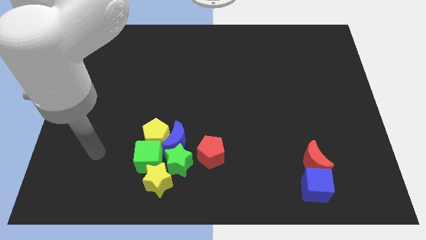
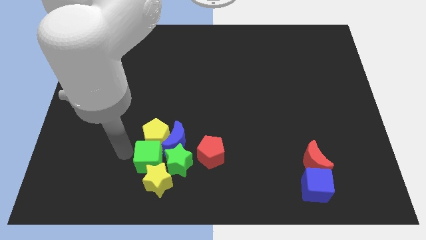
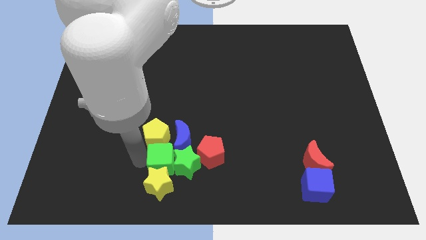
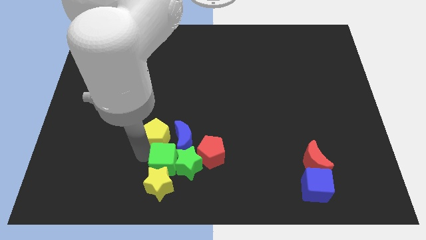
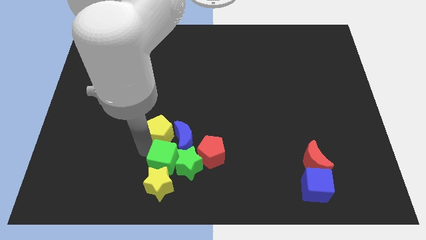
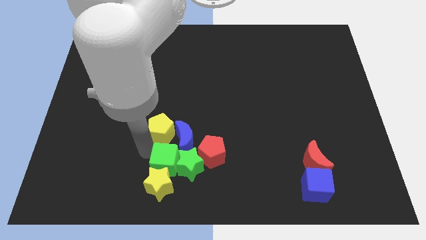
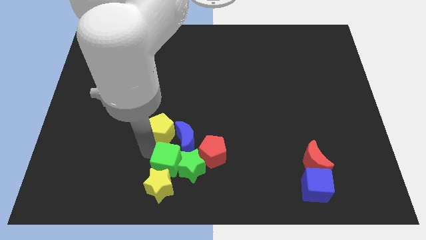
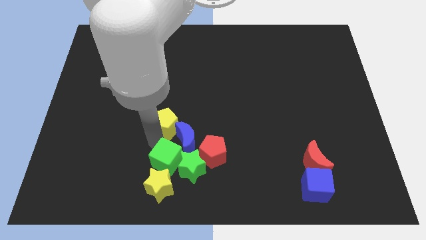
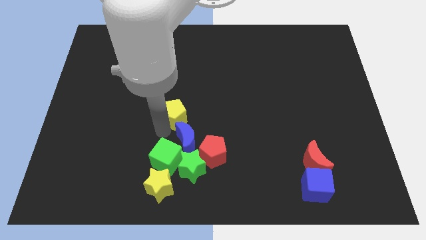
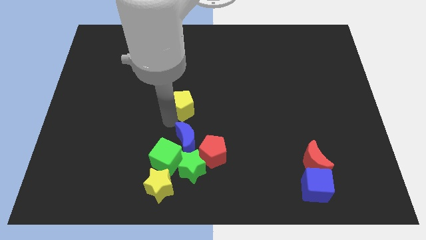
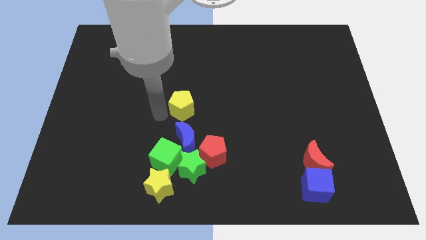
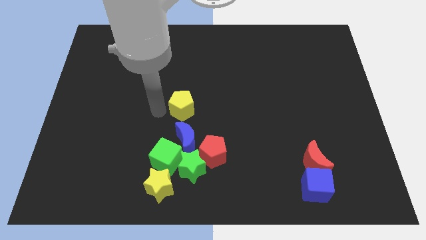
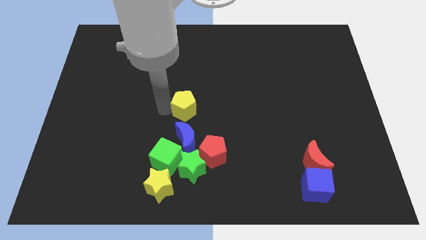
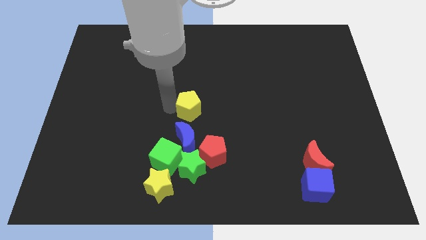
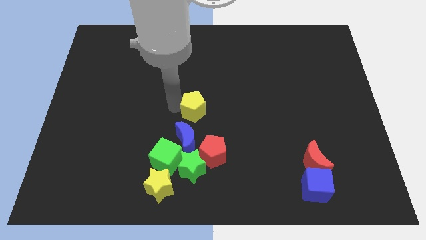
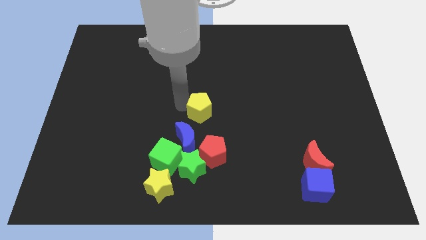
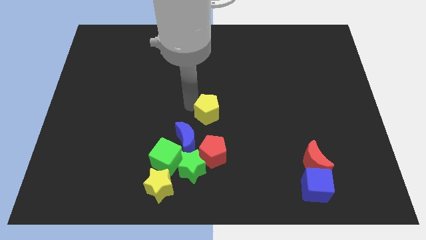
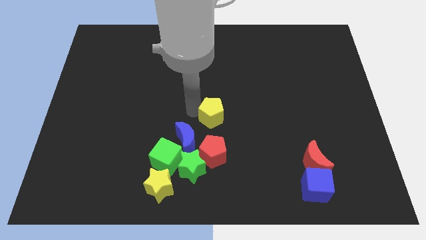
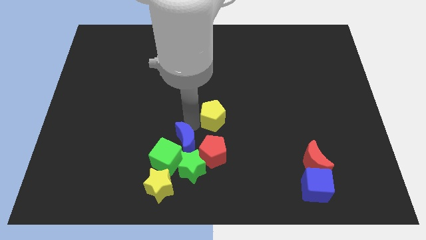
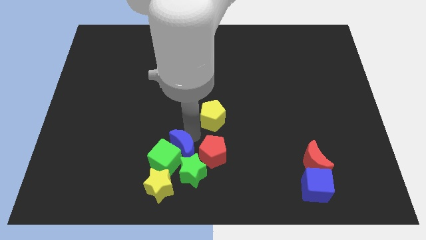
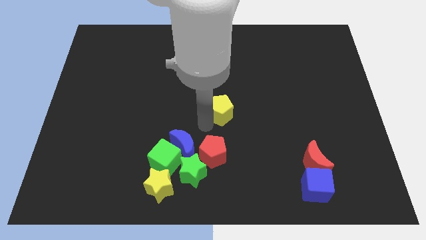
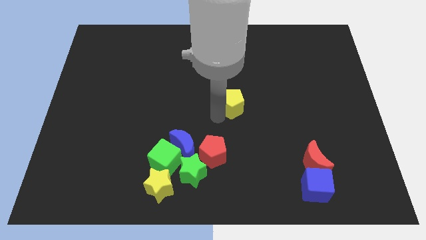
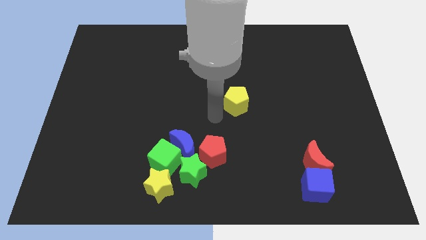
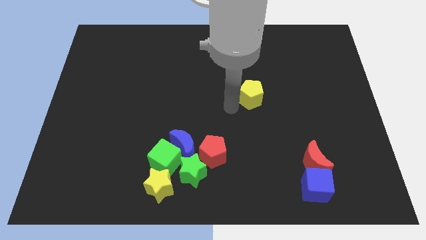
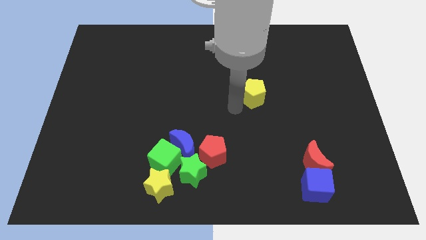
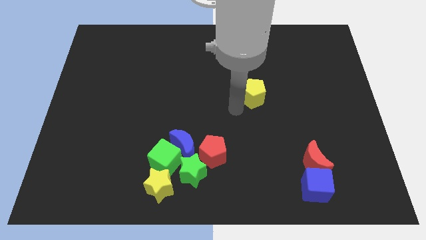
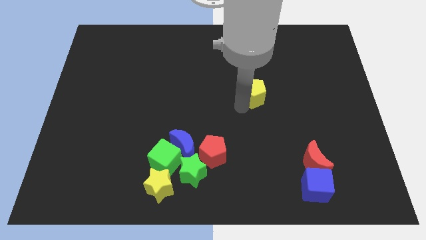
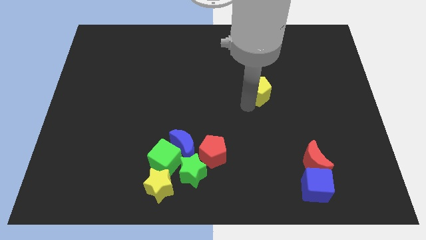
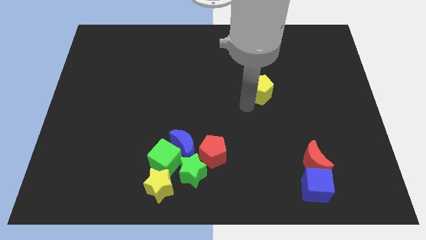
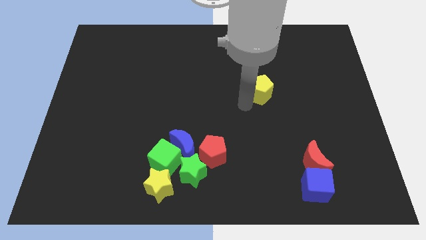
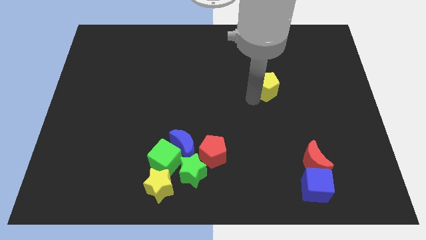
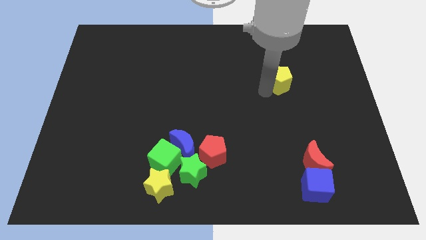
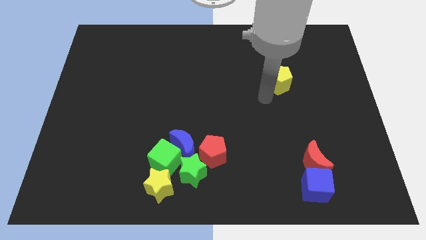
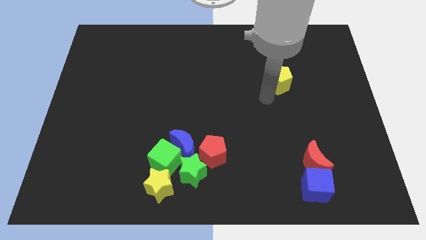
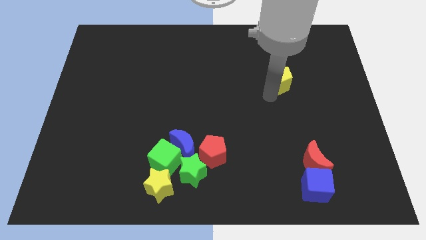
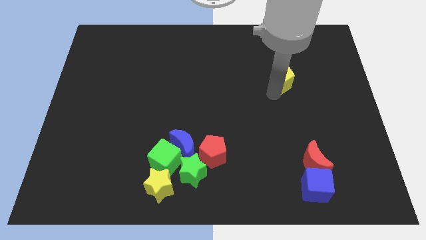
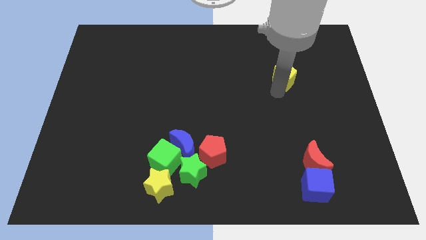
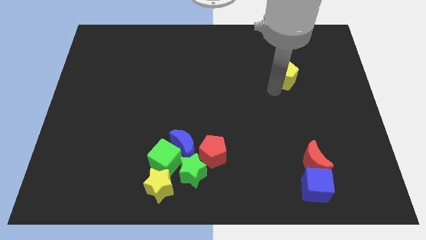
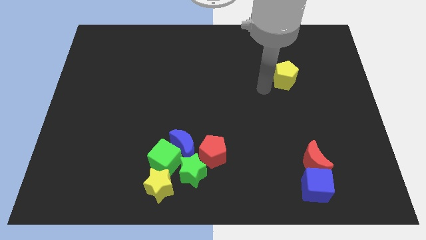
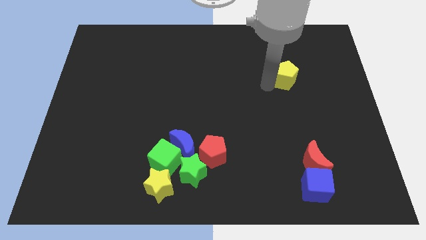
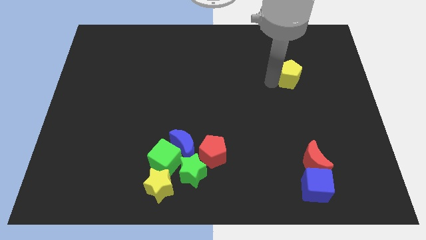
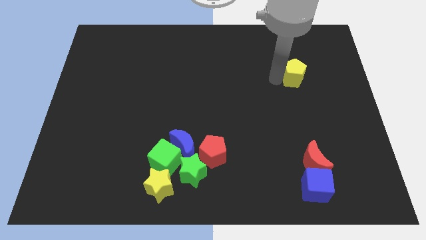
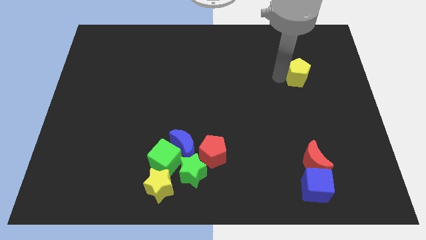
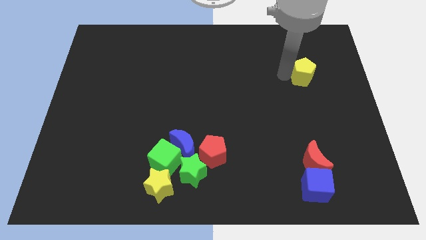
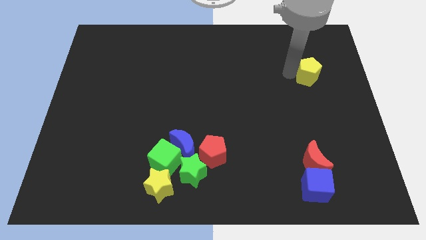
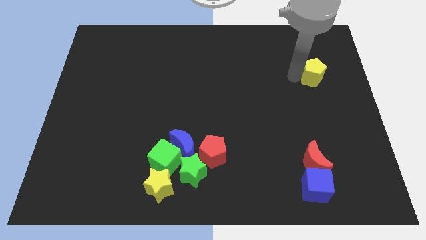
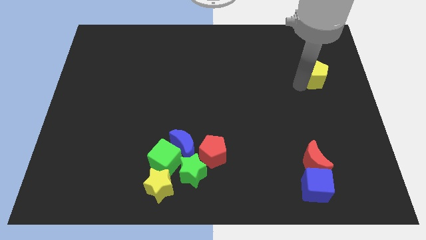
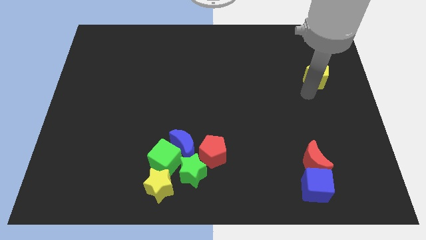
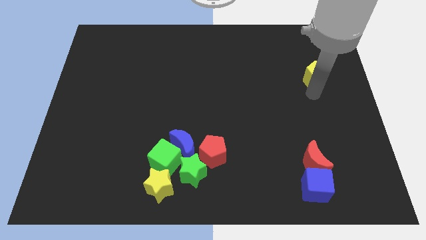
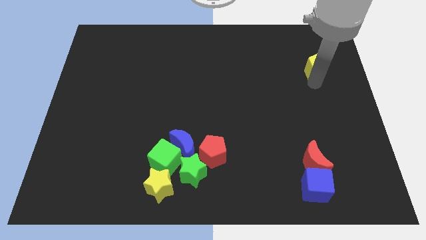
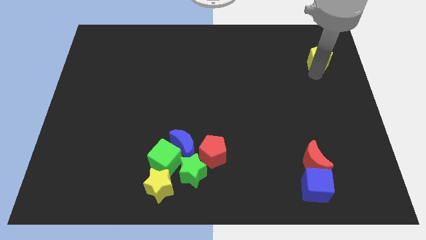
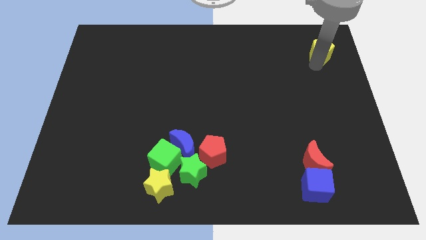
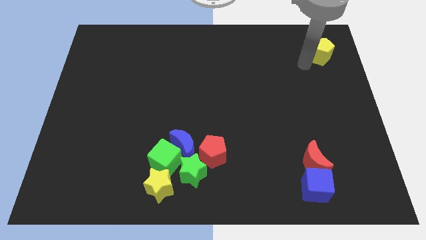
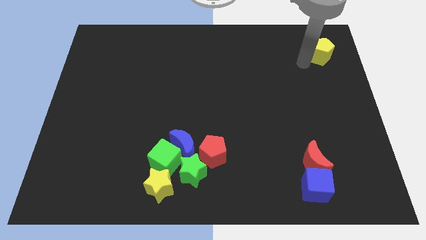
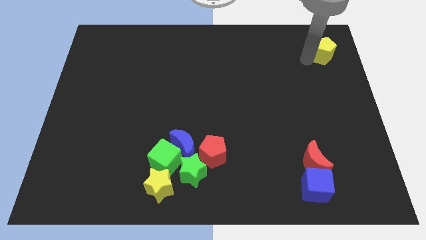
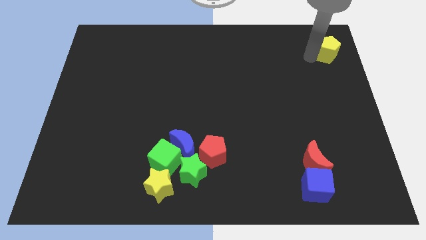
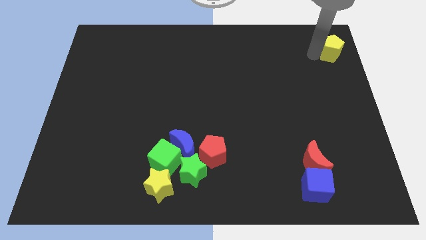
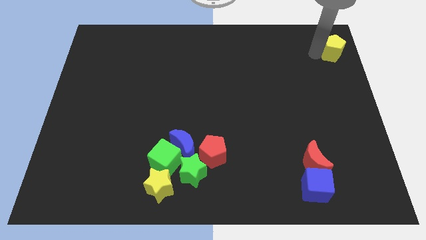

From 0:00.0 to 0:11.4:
slide the yellow pentagon to the top right of the board

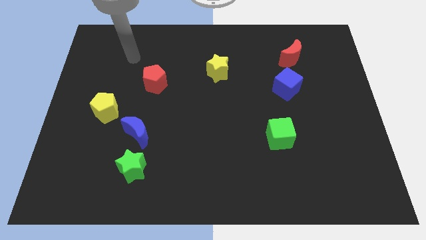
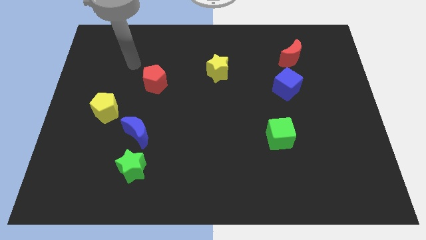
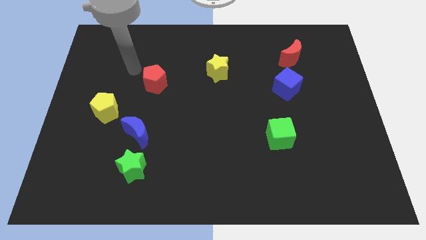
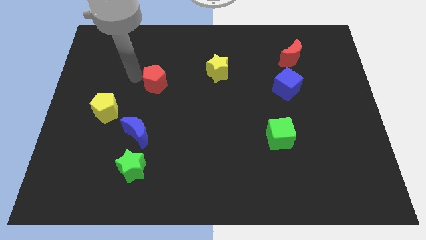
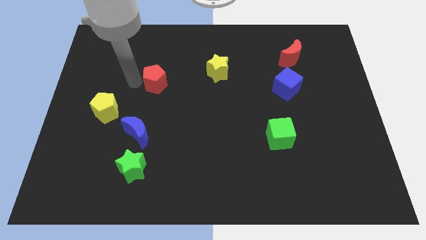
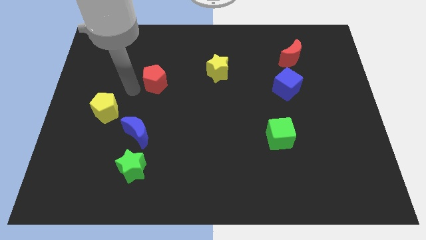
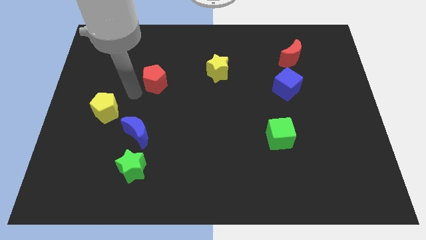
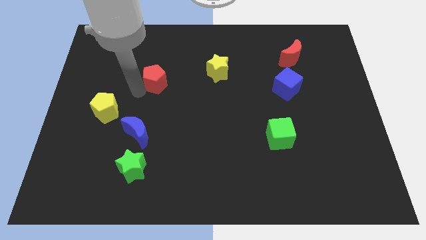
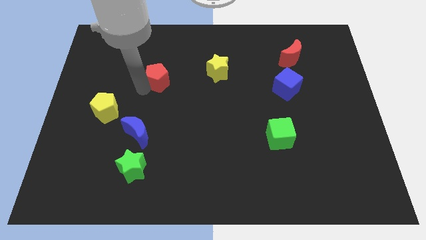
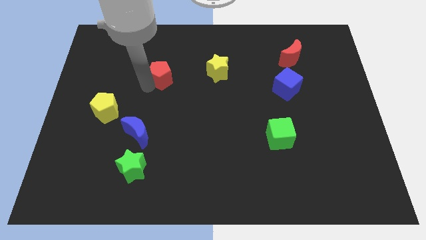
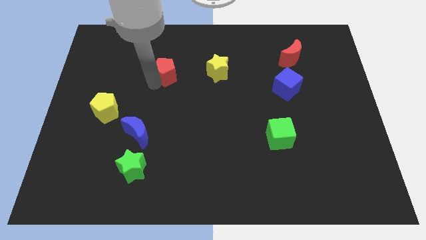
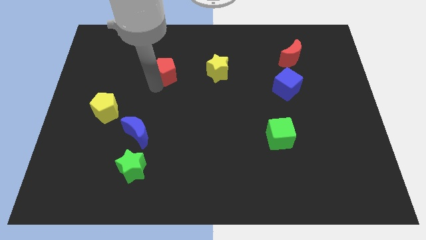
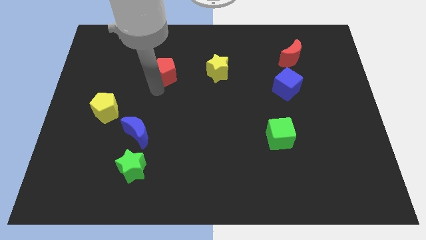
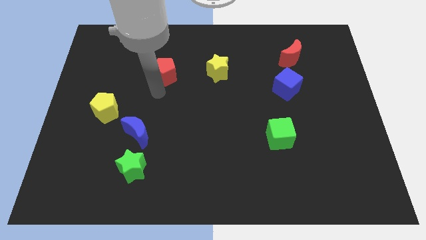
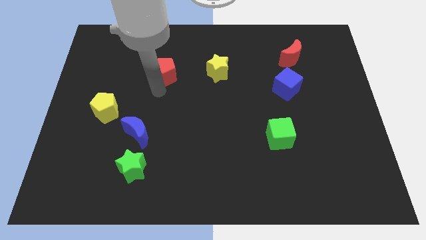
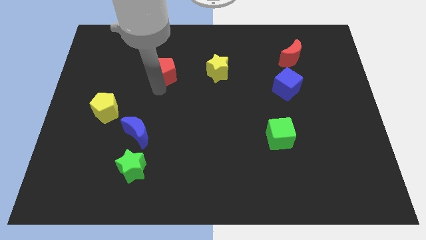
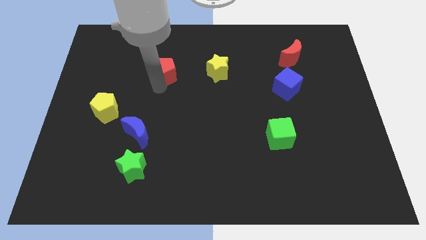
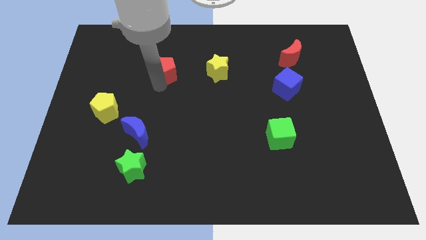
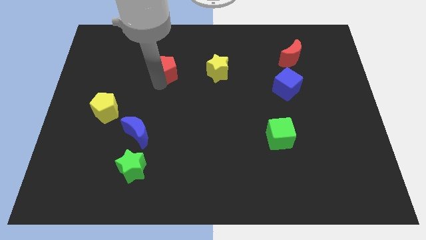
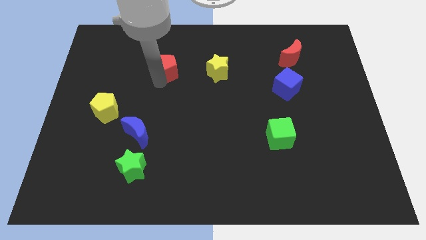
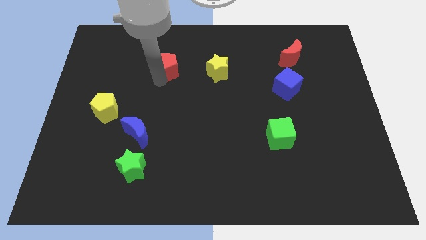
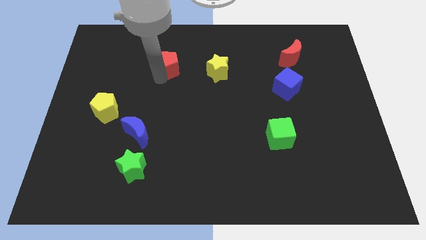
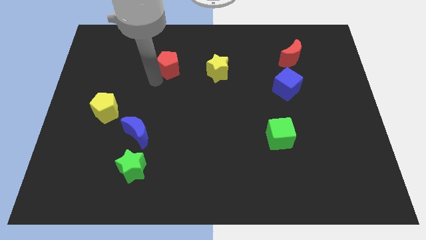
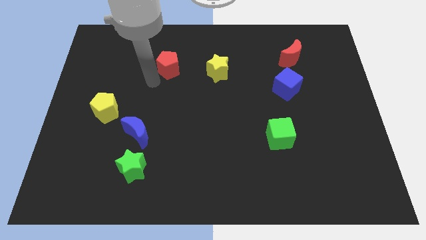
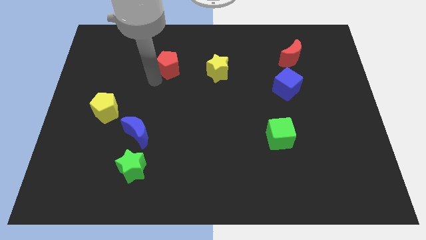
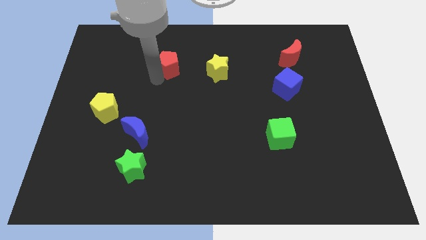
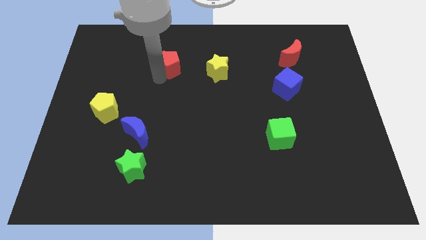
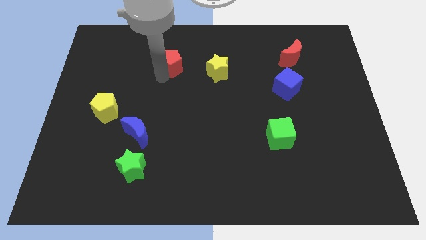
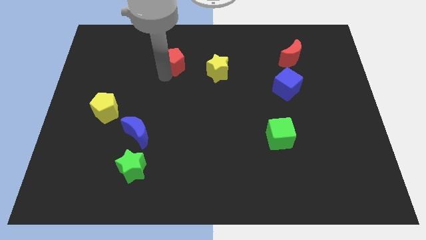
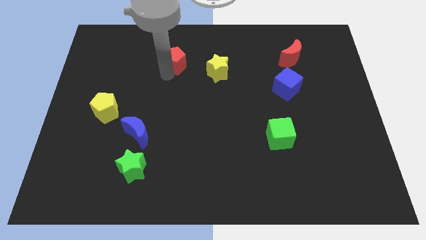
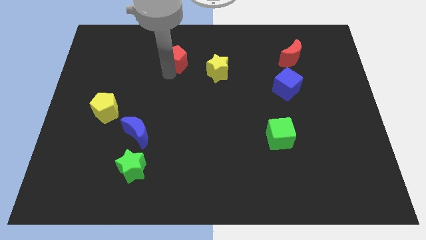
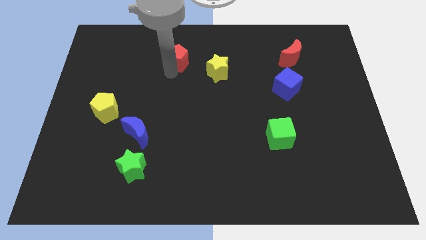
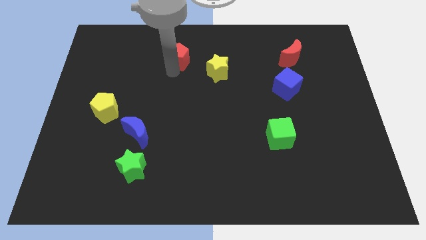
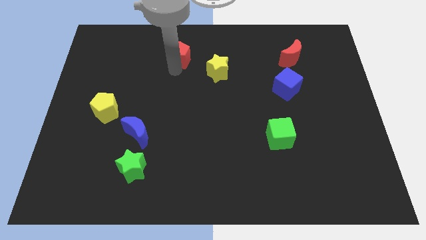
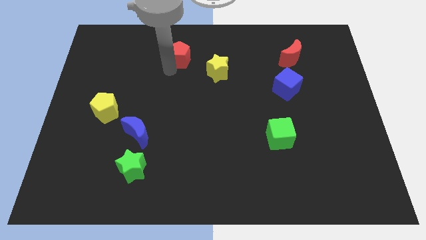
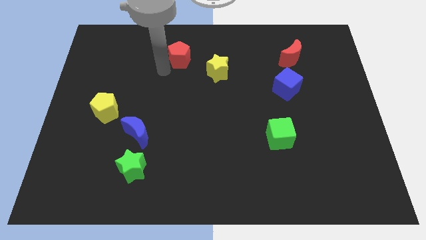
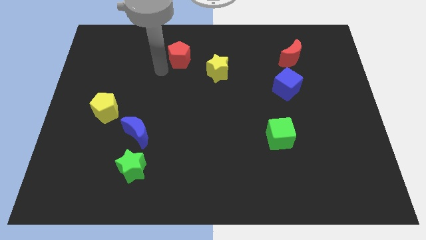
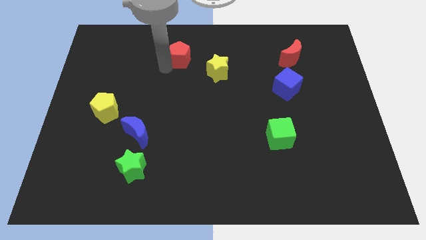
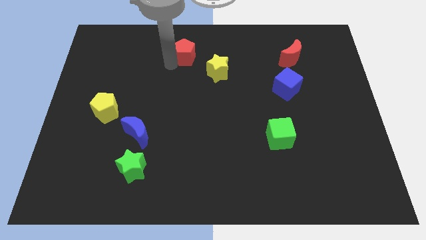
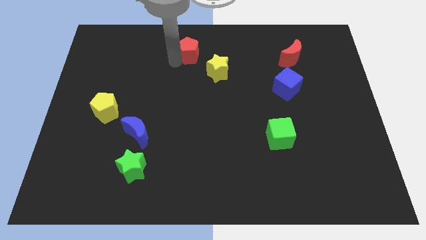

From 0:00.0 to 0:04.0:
slide the red pentagon to the top
